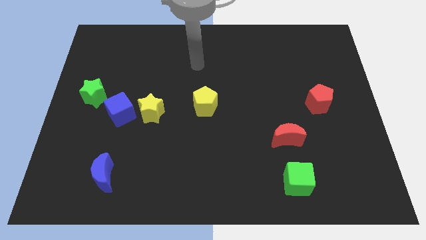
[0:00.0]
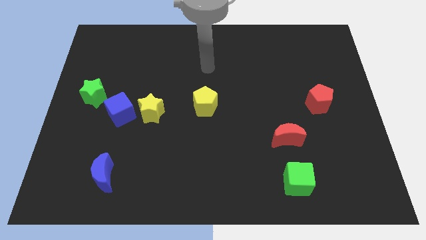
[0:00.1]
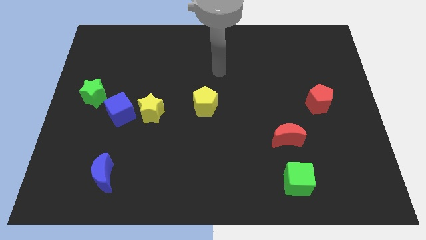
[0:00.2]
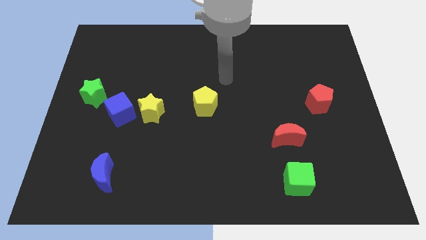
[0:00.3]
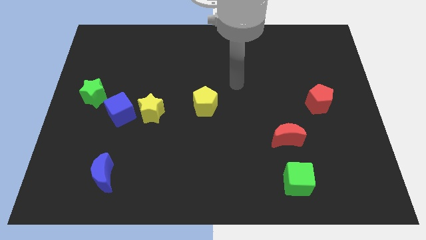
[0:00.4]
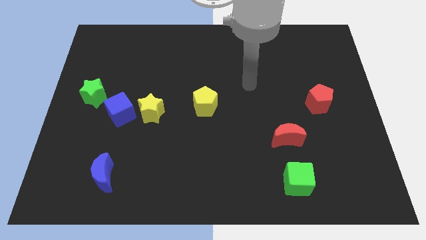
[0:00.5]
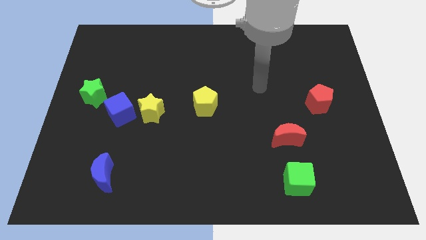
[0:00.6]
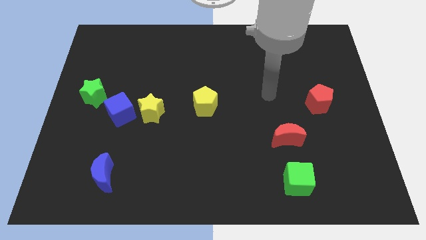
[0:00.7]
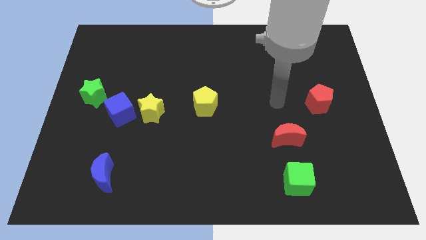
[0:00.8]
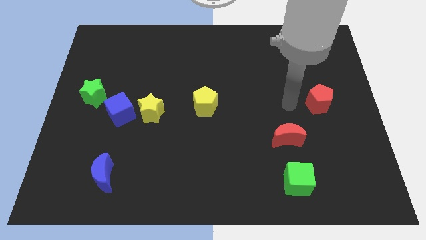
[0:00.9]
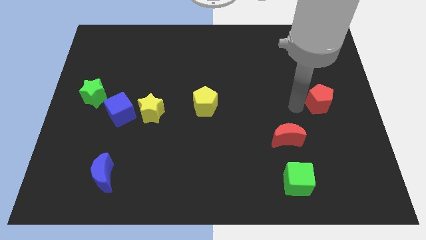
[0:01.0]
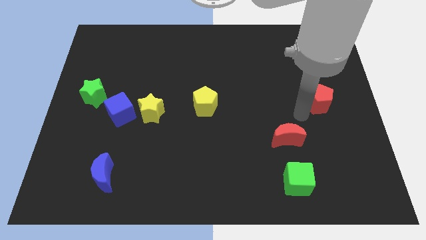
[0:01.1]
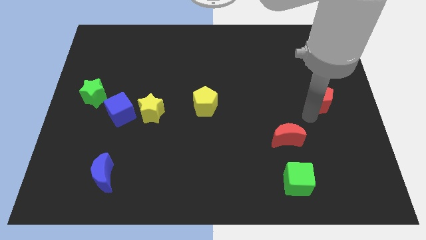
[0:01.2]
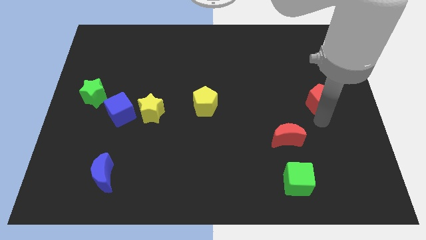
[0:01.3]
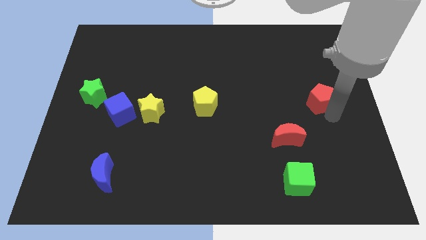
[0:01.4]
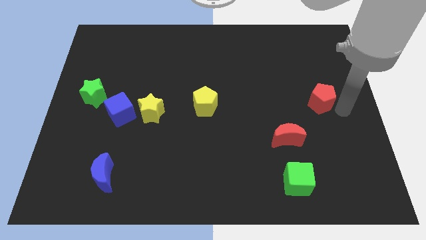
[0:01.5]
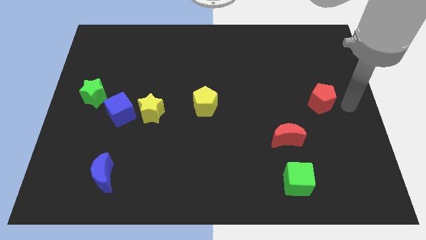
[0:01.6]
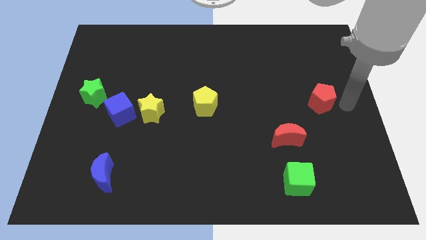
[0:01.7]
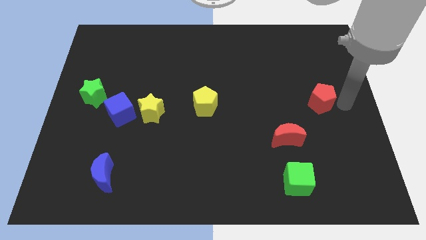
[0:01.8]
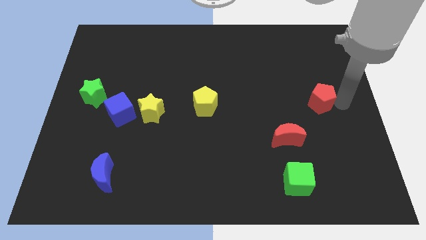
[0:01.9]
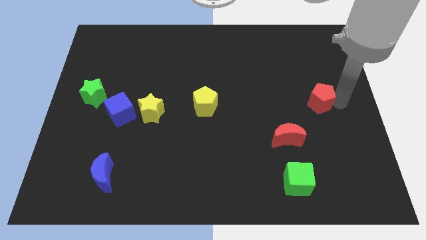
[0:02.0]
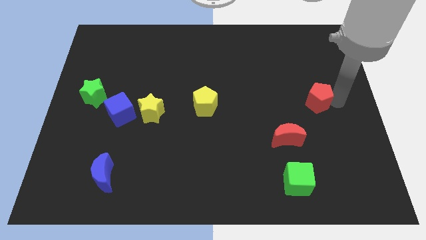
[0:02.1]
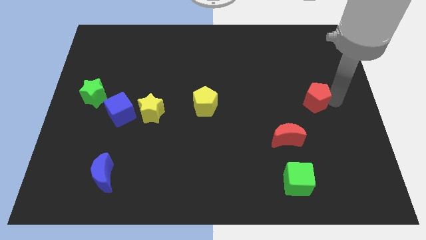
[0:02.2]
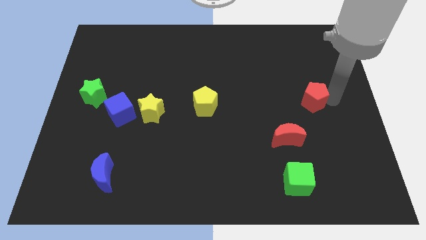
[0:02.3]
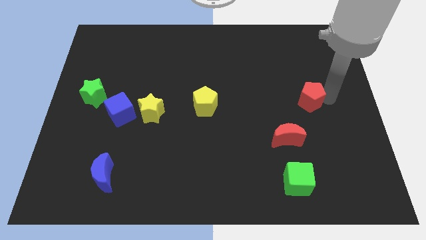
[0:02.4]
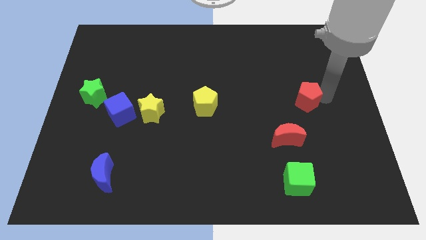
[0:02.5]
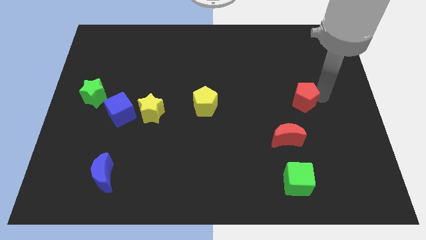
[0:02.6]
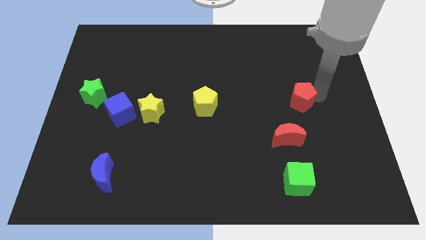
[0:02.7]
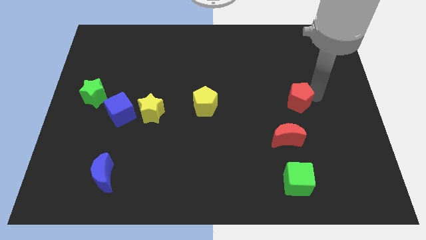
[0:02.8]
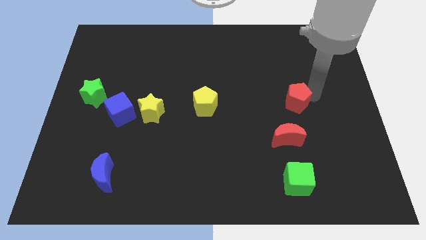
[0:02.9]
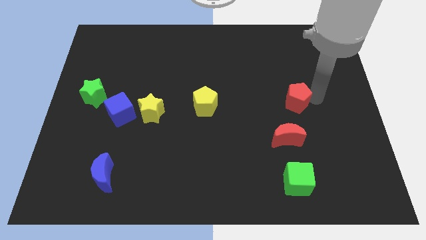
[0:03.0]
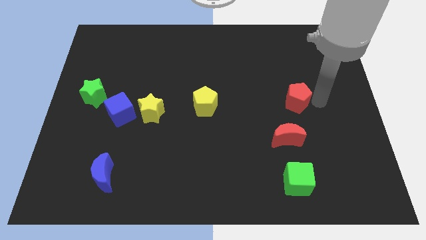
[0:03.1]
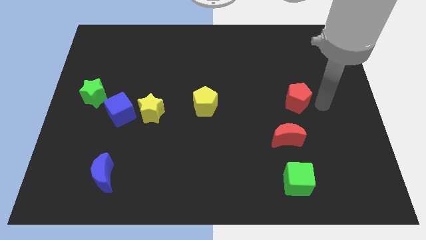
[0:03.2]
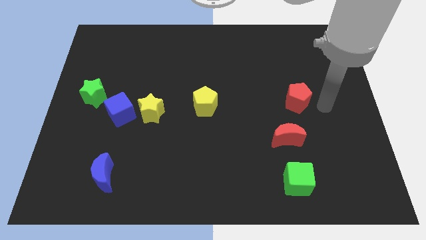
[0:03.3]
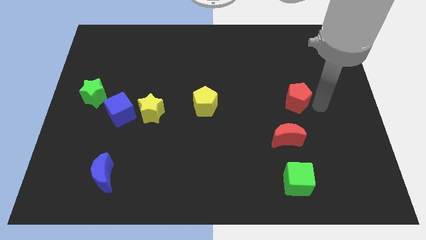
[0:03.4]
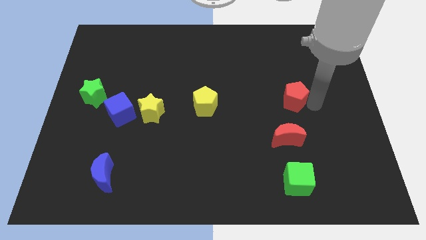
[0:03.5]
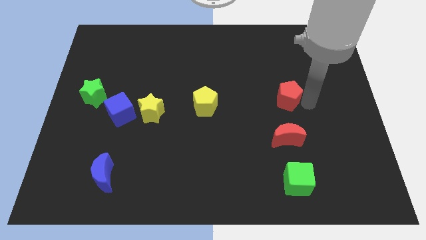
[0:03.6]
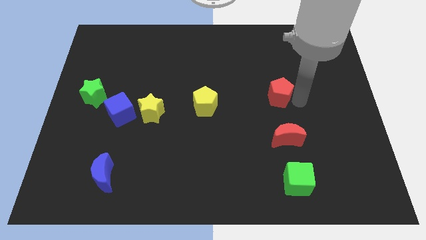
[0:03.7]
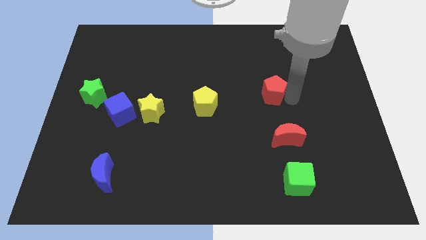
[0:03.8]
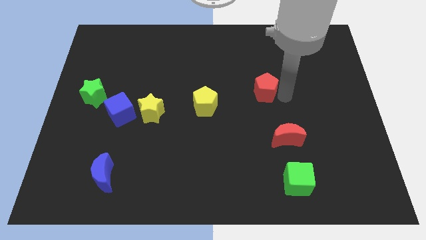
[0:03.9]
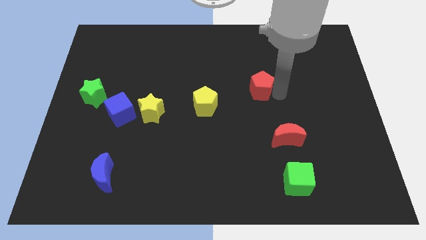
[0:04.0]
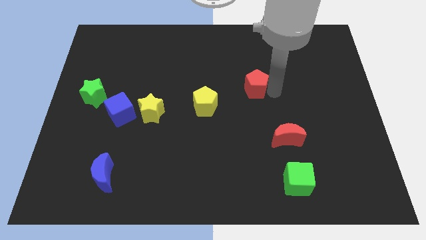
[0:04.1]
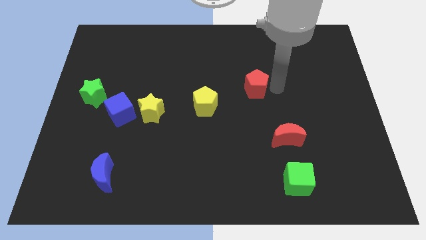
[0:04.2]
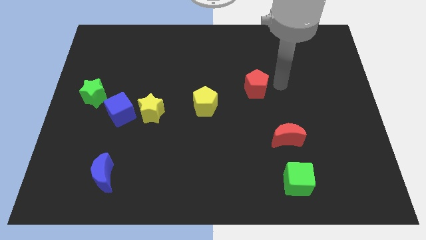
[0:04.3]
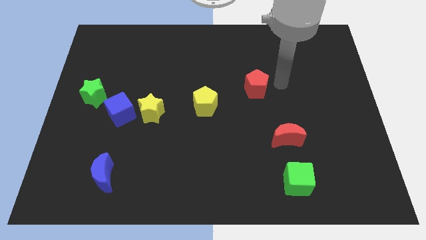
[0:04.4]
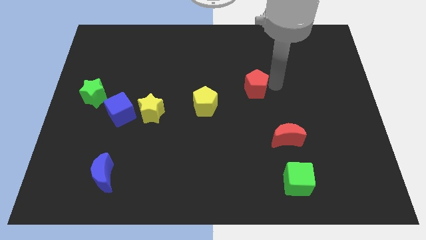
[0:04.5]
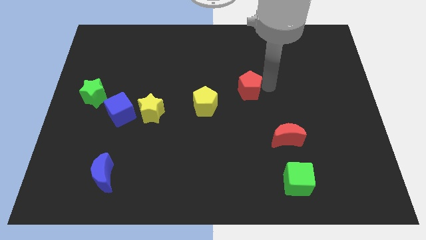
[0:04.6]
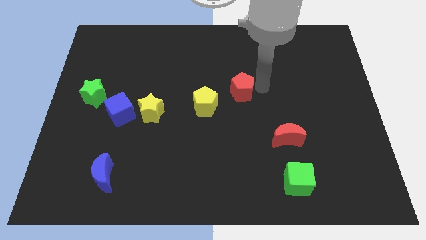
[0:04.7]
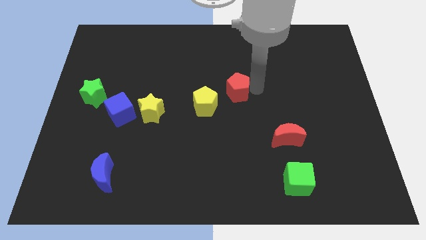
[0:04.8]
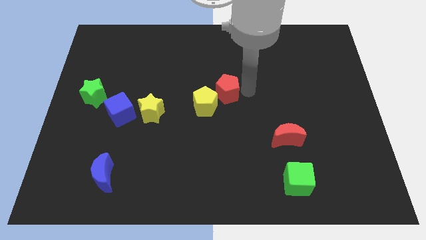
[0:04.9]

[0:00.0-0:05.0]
move the red pentagon to the left

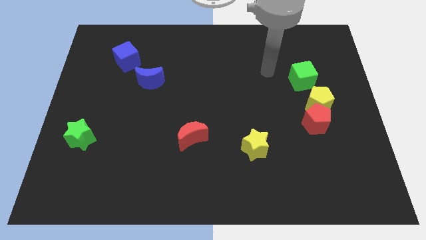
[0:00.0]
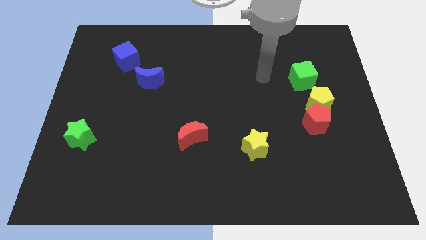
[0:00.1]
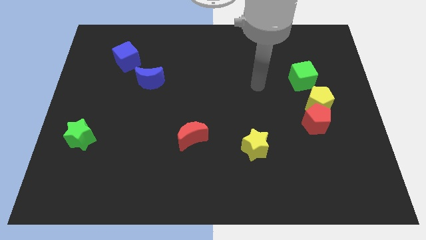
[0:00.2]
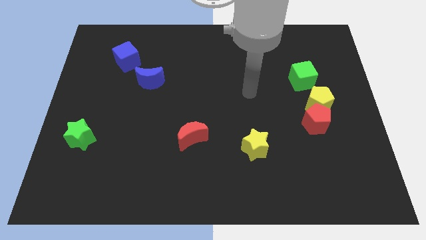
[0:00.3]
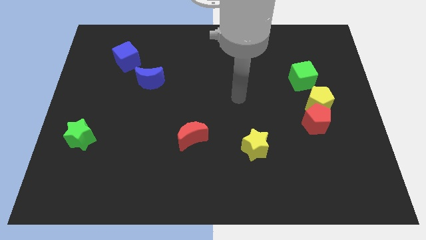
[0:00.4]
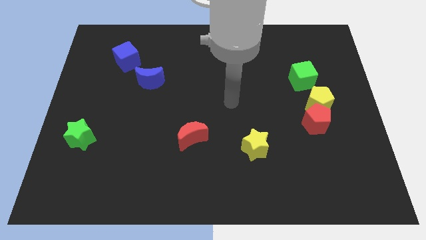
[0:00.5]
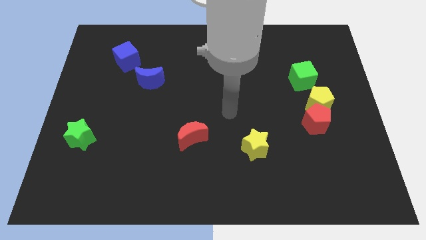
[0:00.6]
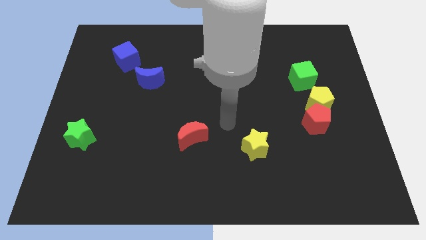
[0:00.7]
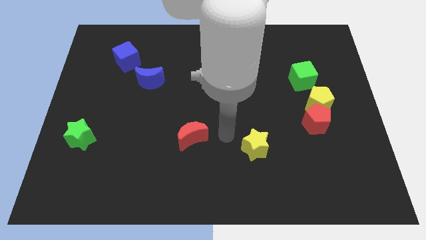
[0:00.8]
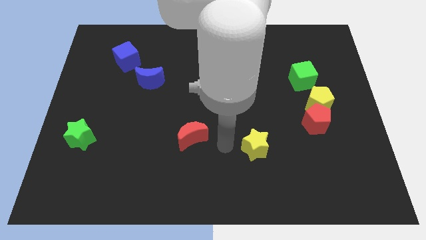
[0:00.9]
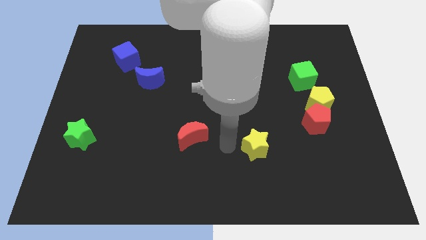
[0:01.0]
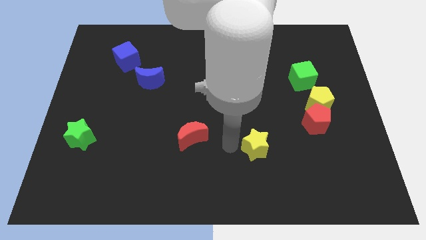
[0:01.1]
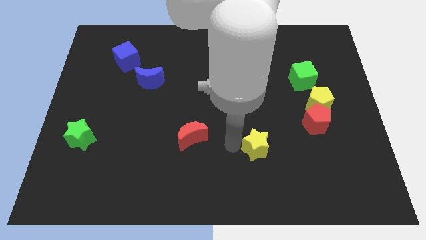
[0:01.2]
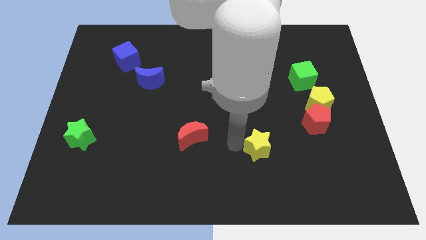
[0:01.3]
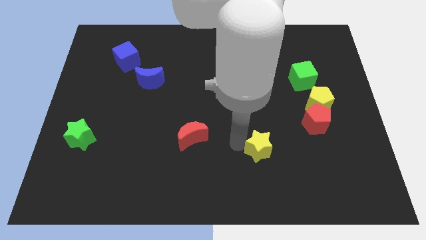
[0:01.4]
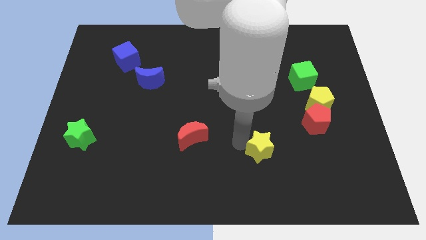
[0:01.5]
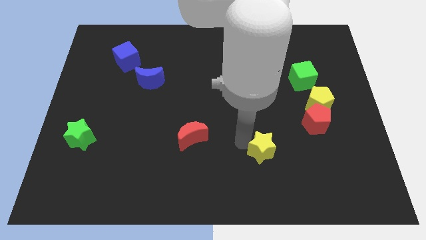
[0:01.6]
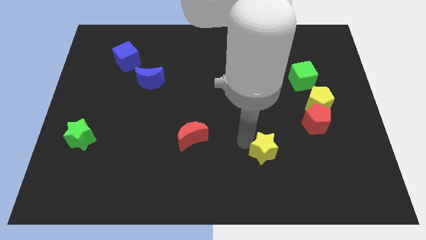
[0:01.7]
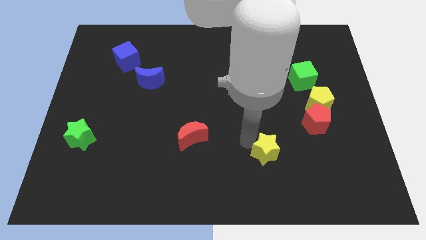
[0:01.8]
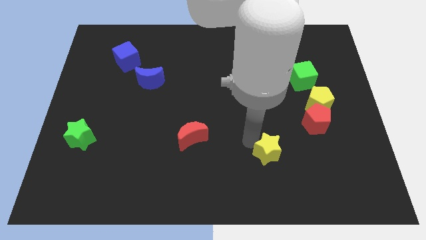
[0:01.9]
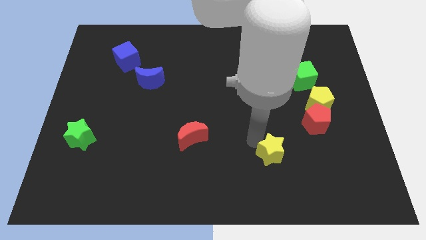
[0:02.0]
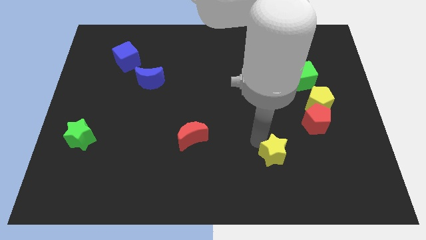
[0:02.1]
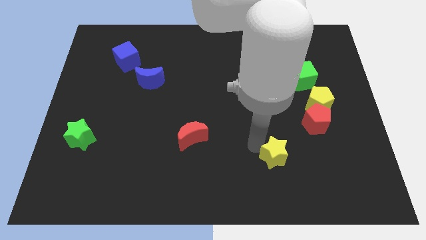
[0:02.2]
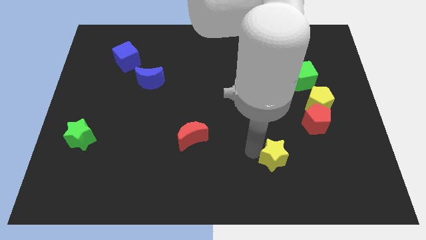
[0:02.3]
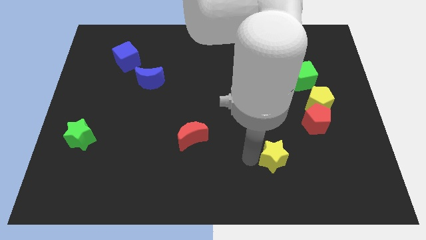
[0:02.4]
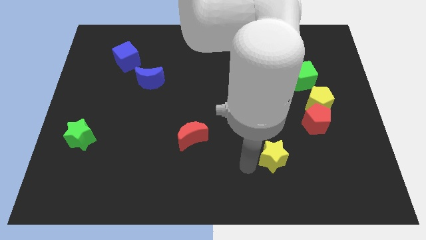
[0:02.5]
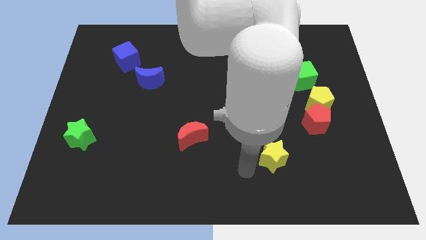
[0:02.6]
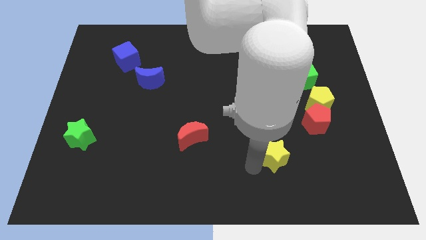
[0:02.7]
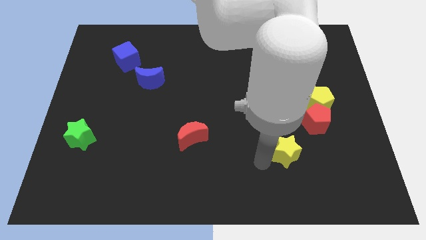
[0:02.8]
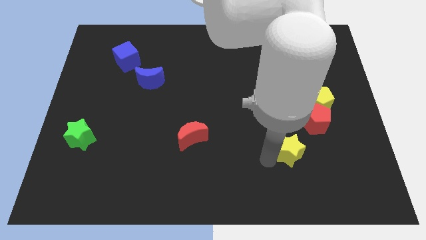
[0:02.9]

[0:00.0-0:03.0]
push the yellow star to the right a little bit

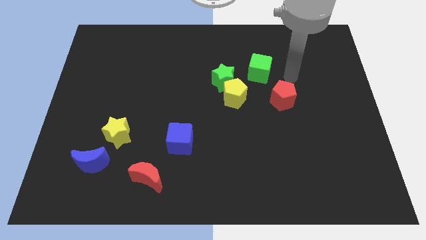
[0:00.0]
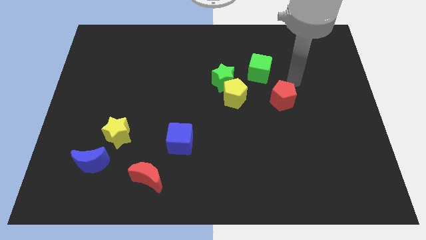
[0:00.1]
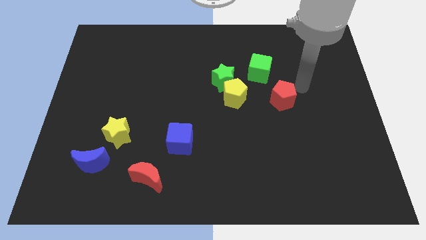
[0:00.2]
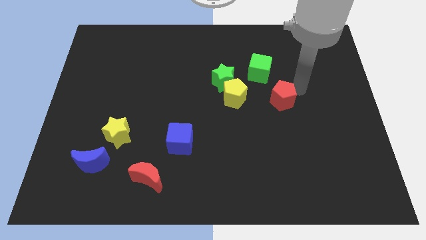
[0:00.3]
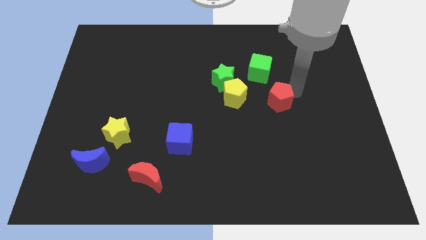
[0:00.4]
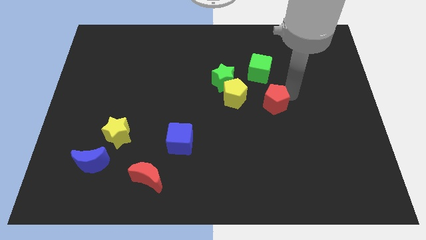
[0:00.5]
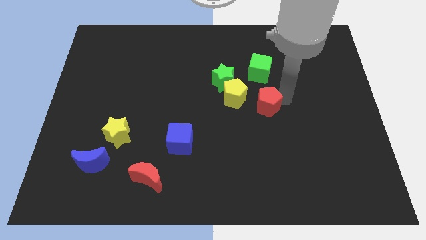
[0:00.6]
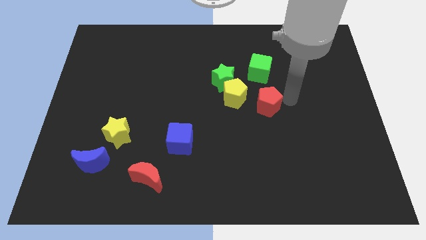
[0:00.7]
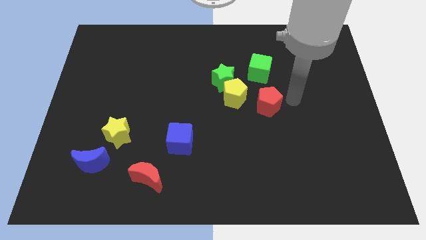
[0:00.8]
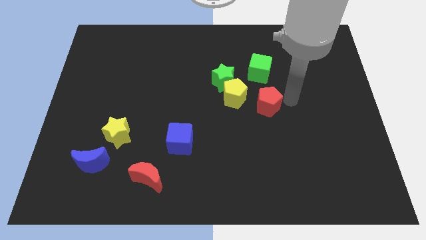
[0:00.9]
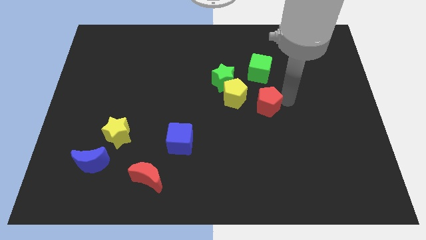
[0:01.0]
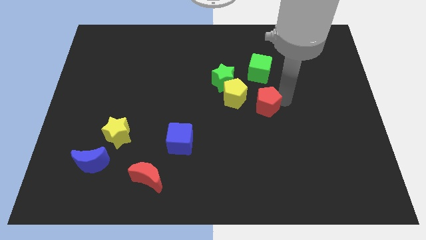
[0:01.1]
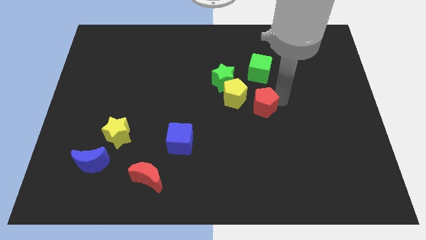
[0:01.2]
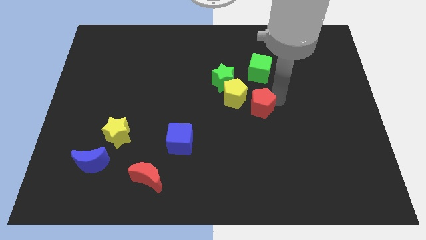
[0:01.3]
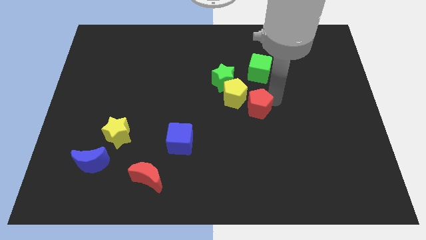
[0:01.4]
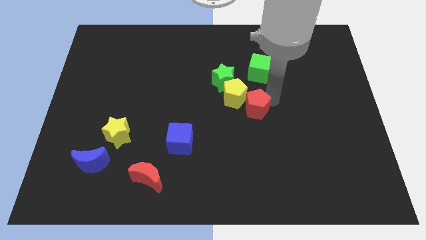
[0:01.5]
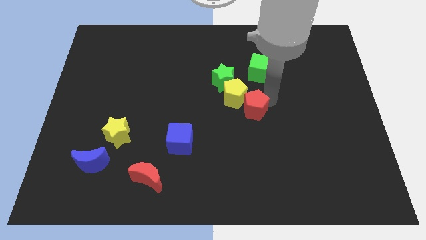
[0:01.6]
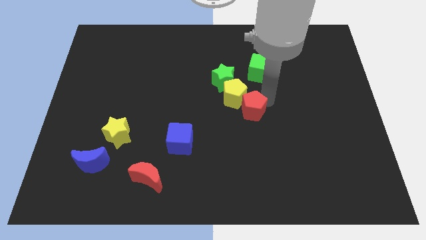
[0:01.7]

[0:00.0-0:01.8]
slide the red pentagon to the left slightly
